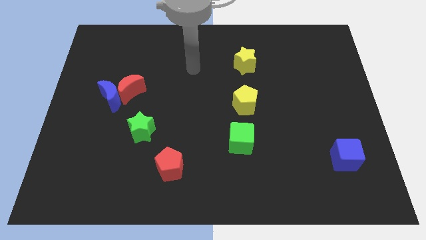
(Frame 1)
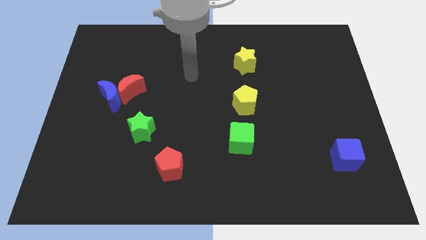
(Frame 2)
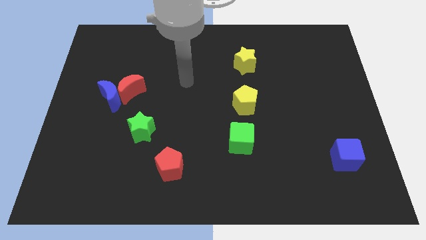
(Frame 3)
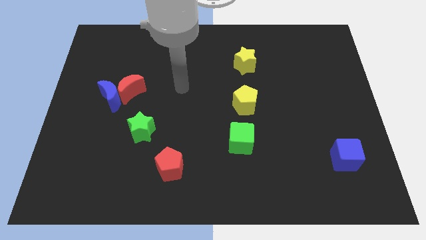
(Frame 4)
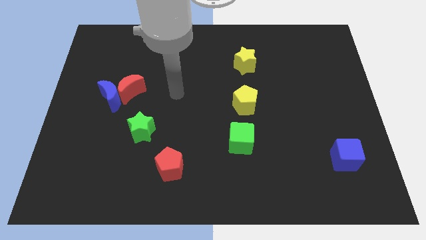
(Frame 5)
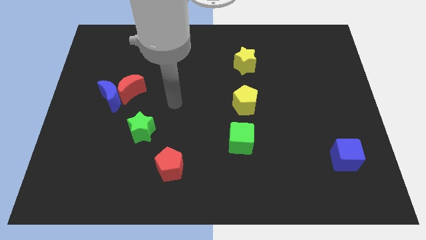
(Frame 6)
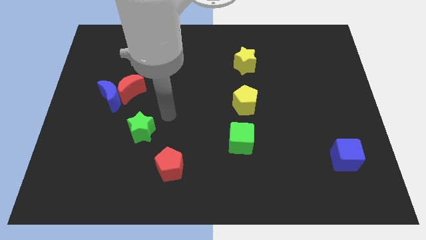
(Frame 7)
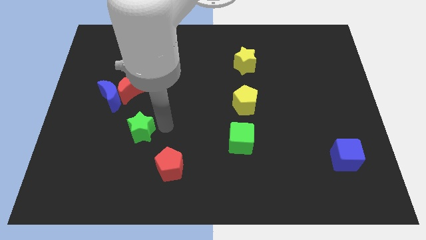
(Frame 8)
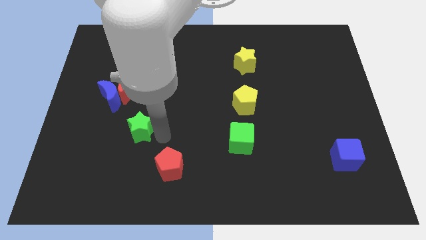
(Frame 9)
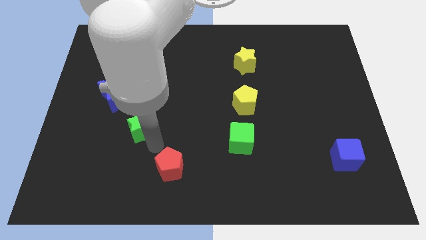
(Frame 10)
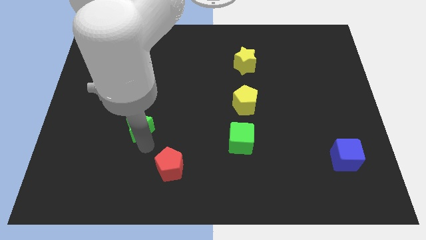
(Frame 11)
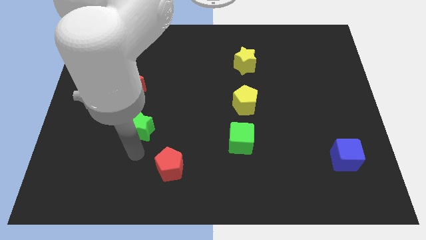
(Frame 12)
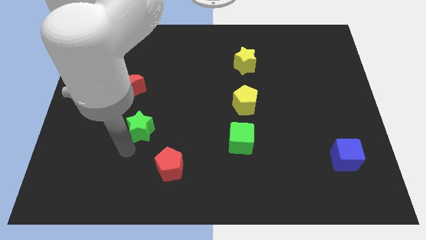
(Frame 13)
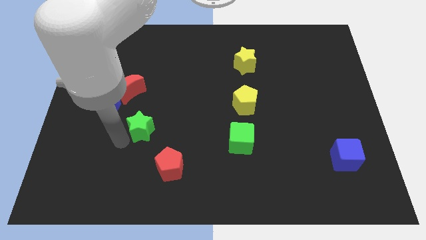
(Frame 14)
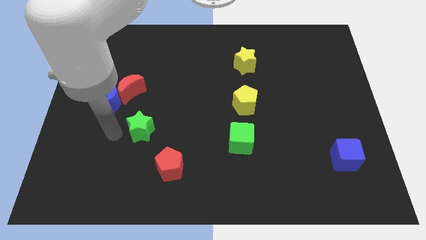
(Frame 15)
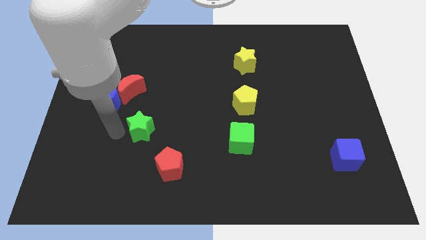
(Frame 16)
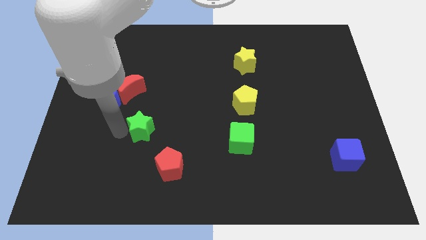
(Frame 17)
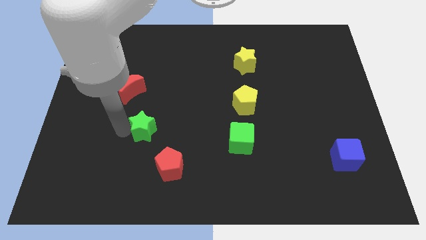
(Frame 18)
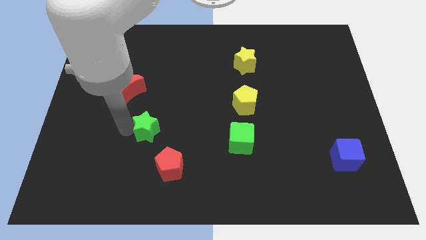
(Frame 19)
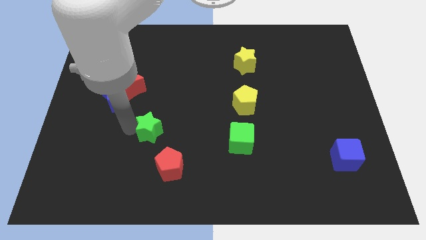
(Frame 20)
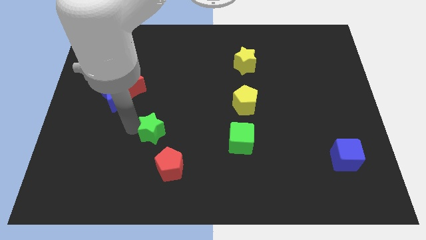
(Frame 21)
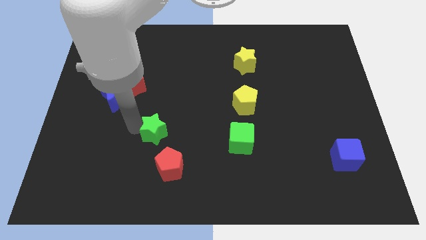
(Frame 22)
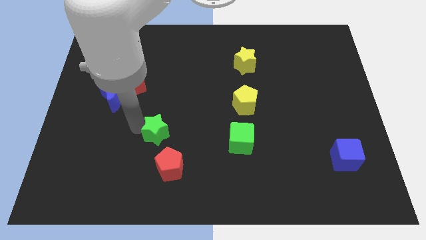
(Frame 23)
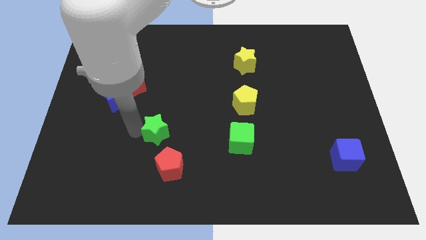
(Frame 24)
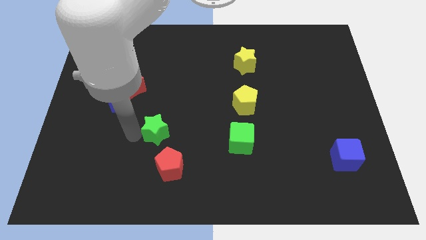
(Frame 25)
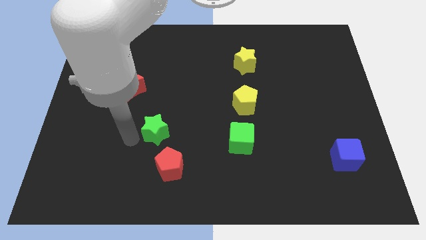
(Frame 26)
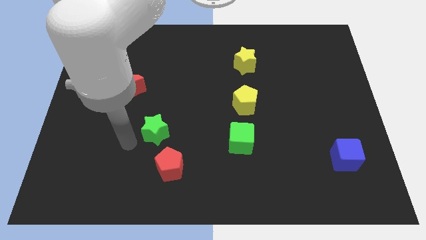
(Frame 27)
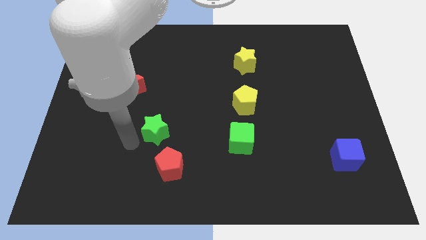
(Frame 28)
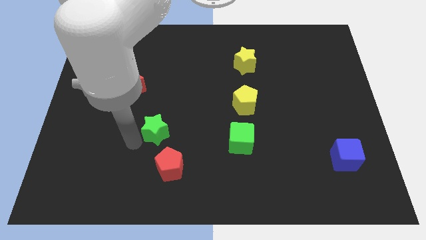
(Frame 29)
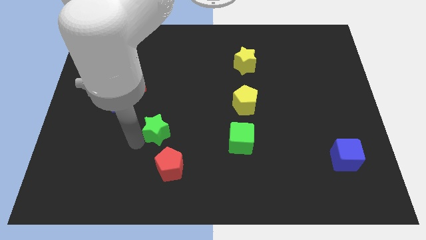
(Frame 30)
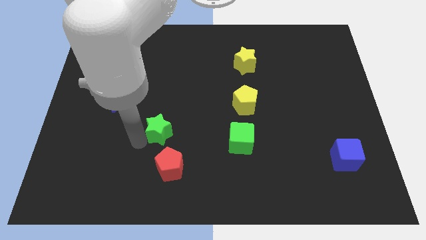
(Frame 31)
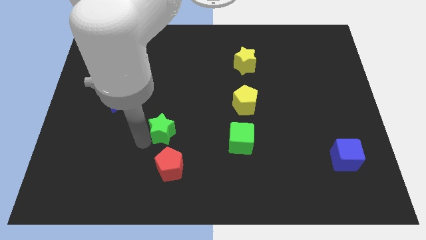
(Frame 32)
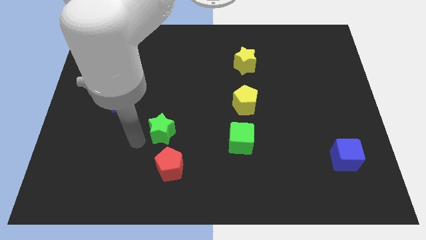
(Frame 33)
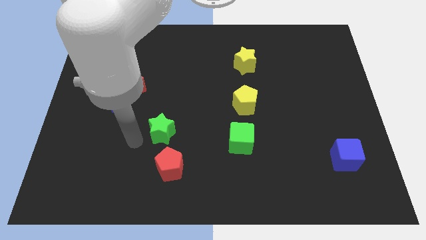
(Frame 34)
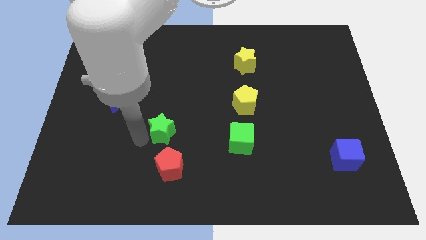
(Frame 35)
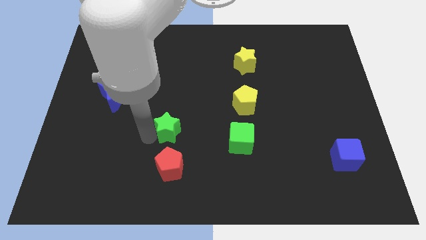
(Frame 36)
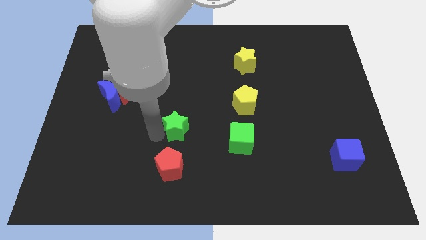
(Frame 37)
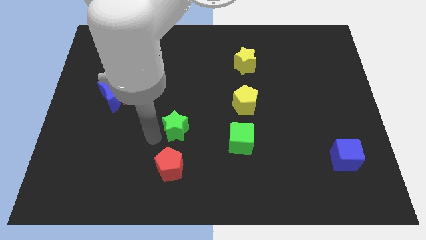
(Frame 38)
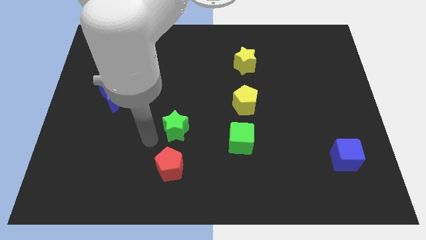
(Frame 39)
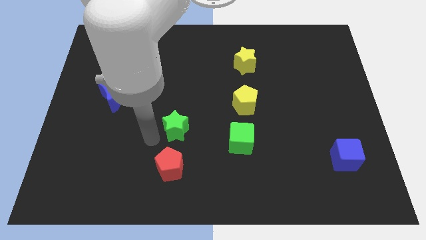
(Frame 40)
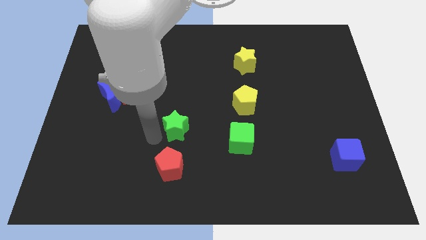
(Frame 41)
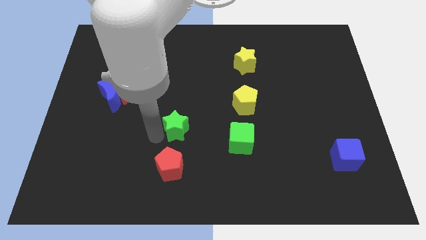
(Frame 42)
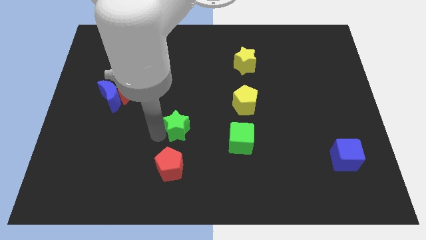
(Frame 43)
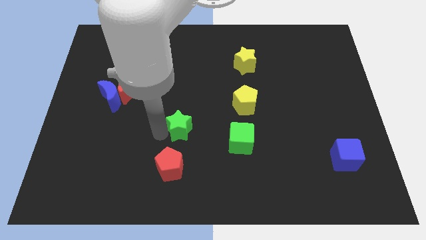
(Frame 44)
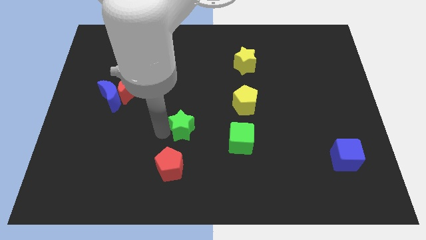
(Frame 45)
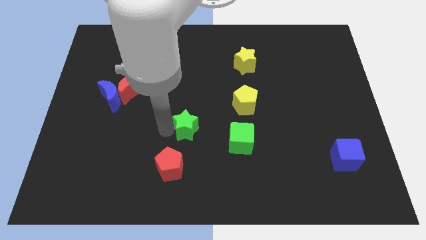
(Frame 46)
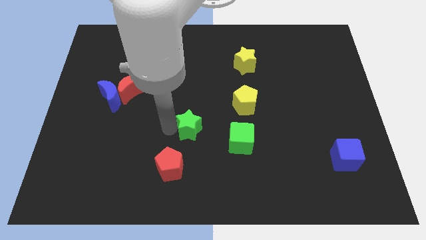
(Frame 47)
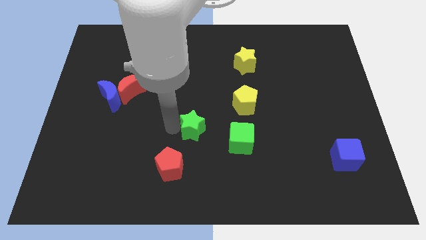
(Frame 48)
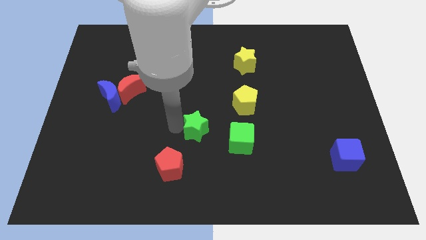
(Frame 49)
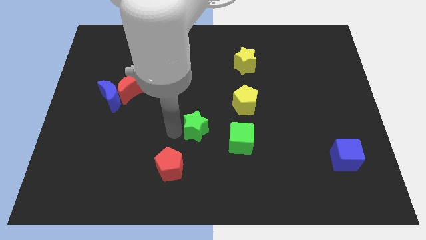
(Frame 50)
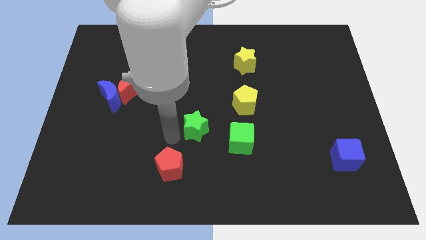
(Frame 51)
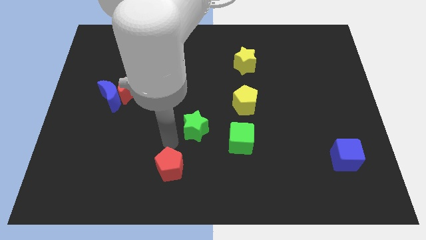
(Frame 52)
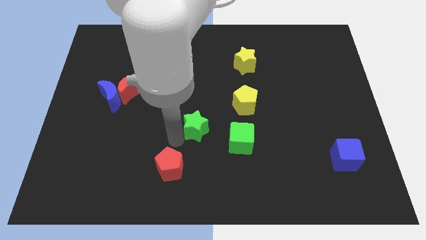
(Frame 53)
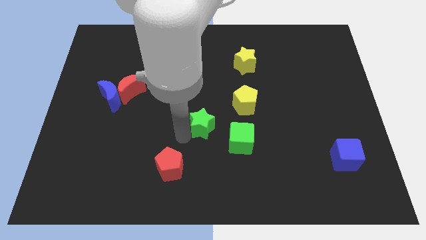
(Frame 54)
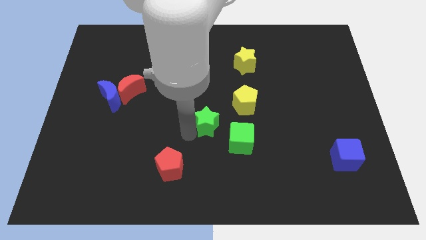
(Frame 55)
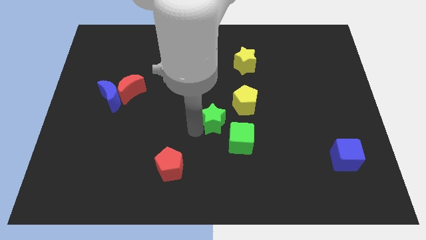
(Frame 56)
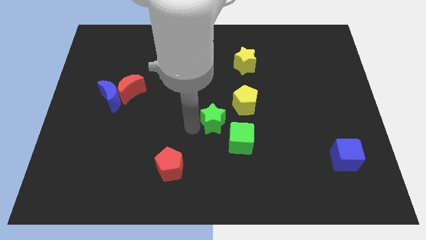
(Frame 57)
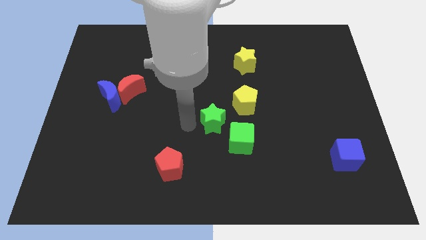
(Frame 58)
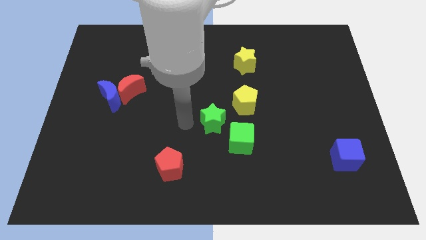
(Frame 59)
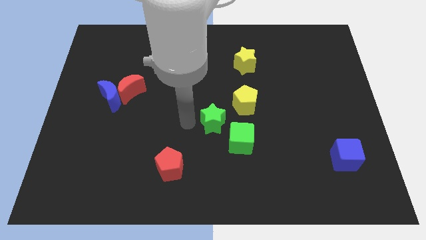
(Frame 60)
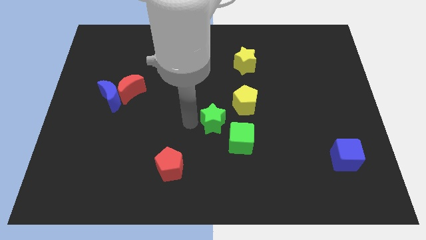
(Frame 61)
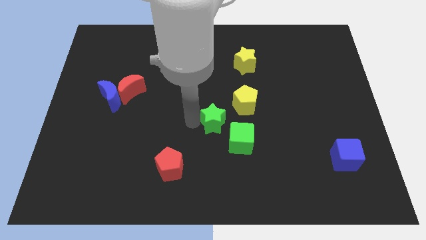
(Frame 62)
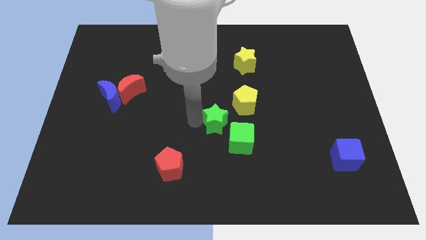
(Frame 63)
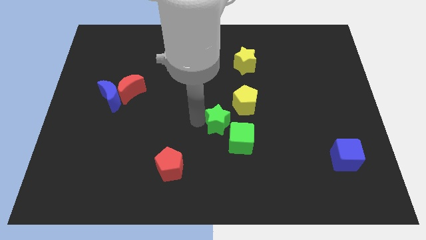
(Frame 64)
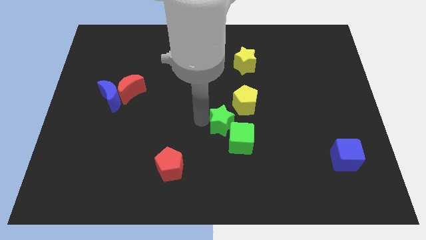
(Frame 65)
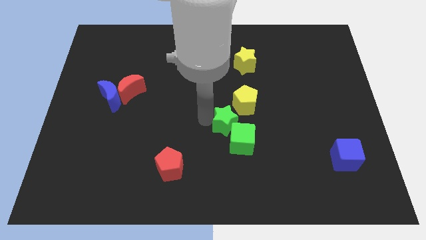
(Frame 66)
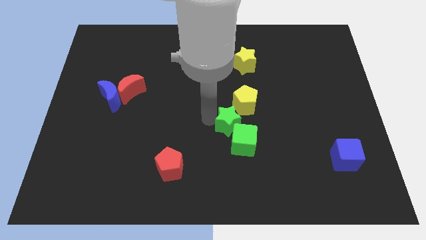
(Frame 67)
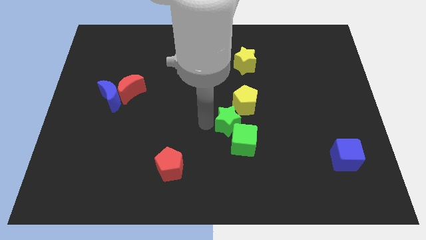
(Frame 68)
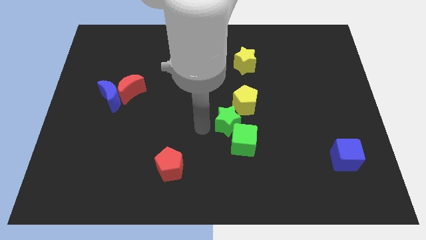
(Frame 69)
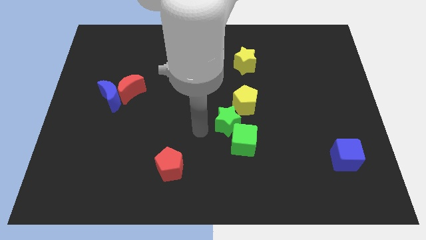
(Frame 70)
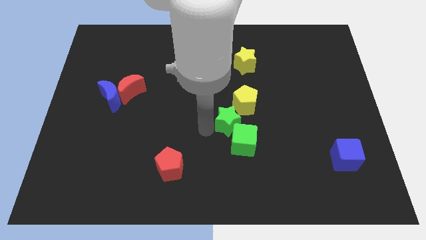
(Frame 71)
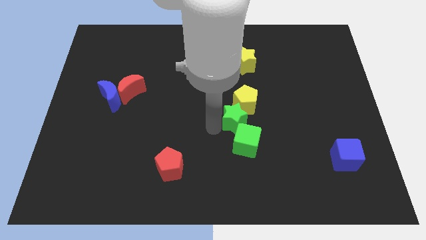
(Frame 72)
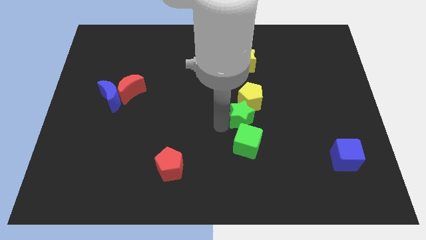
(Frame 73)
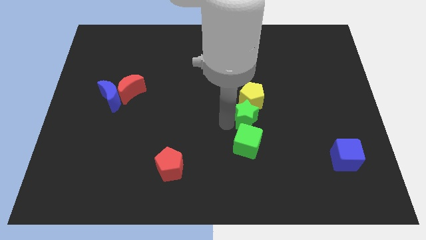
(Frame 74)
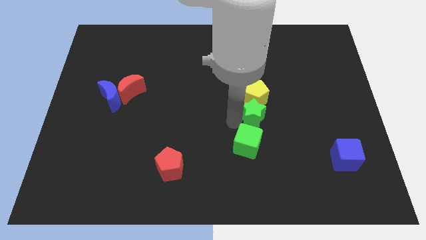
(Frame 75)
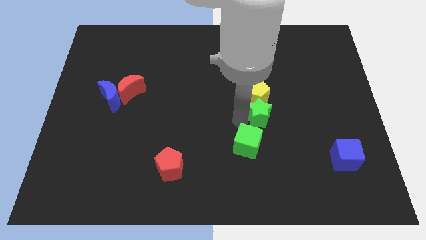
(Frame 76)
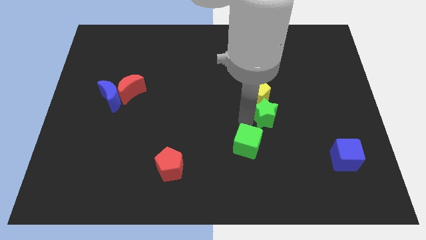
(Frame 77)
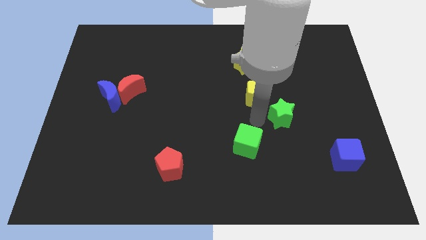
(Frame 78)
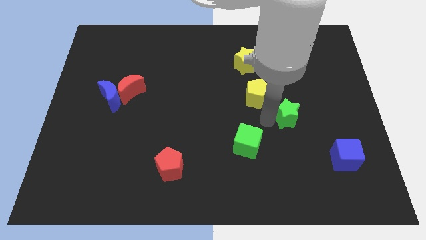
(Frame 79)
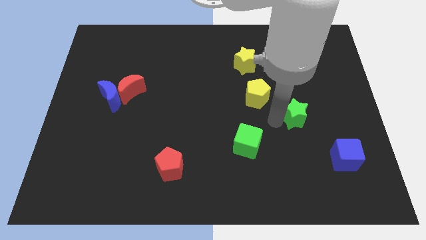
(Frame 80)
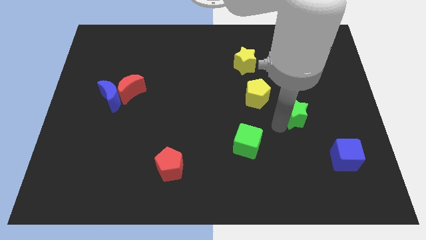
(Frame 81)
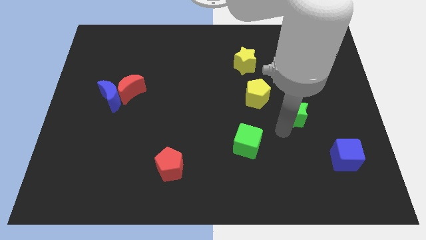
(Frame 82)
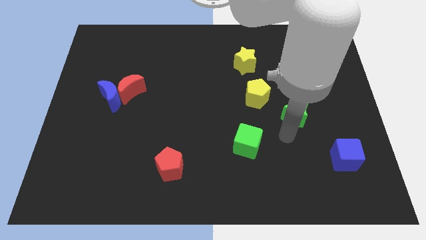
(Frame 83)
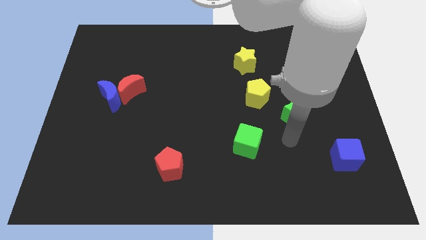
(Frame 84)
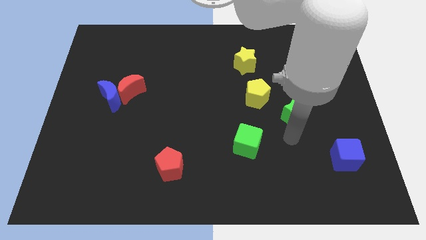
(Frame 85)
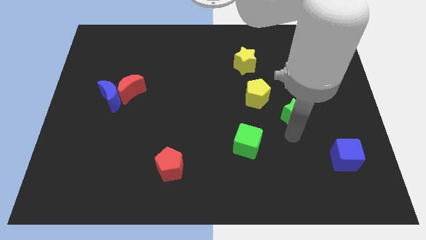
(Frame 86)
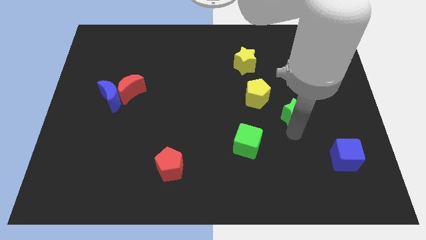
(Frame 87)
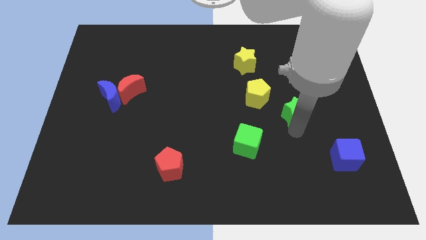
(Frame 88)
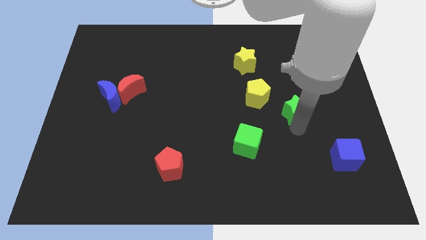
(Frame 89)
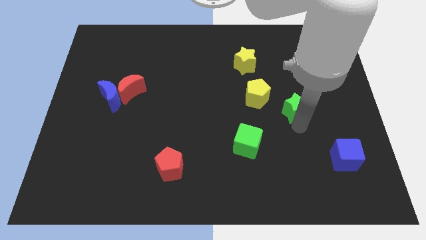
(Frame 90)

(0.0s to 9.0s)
push the green star right of the yellow pentagon
